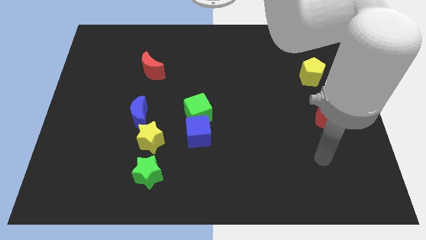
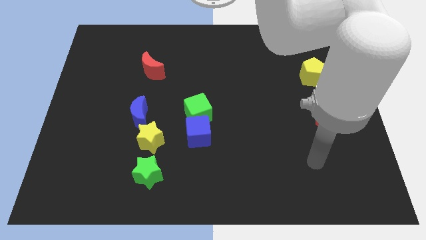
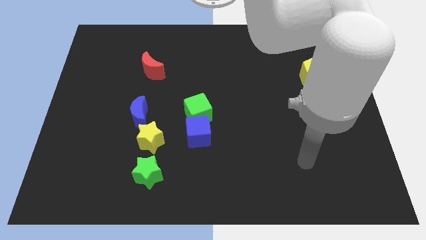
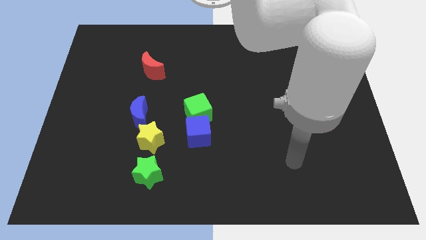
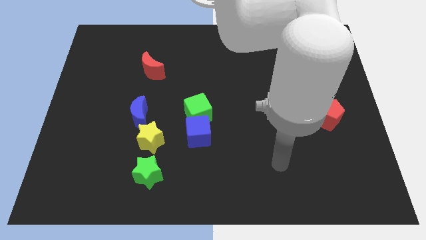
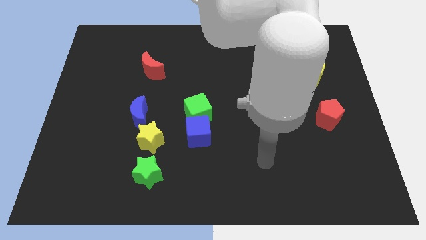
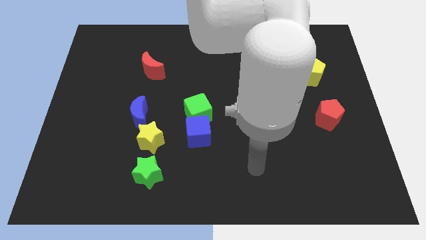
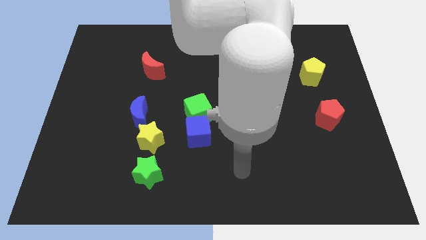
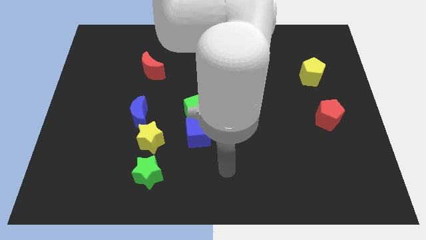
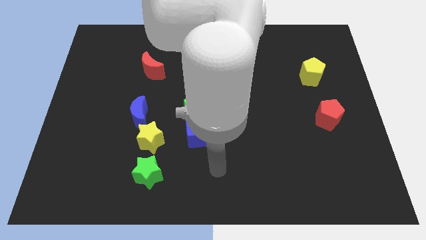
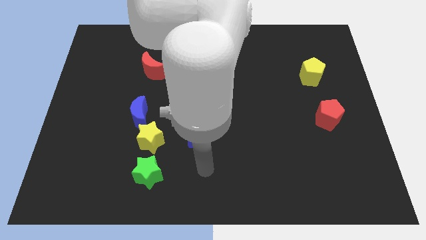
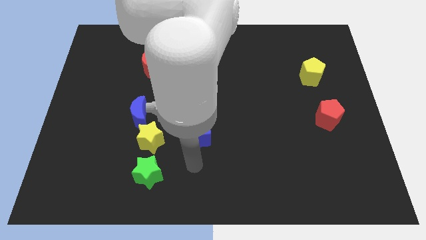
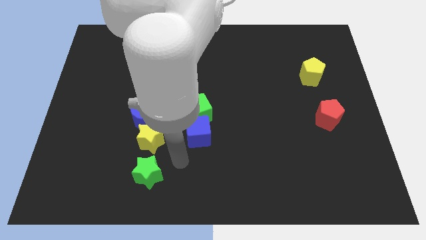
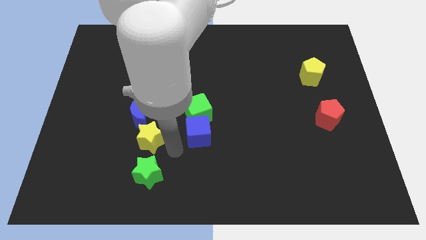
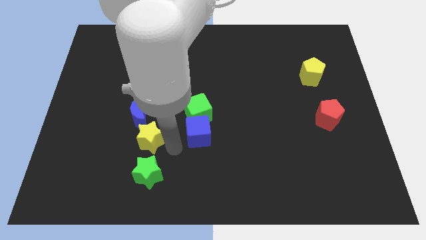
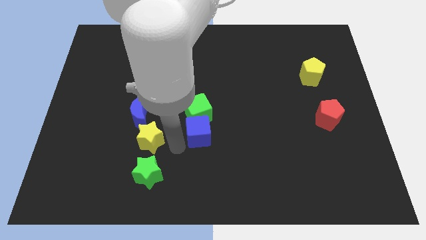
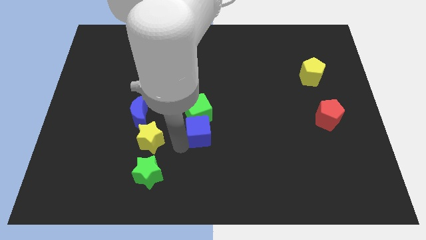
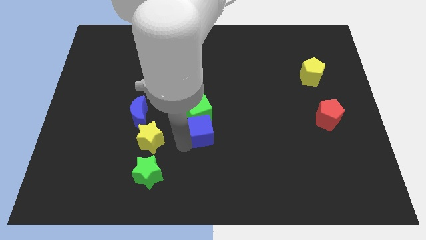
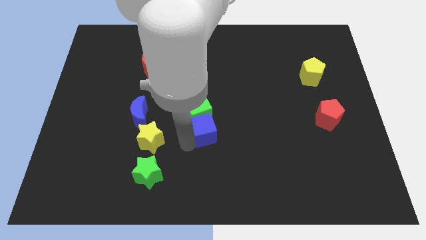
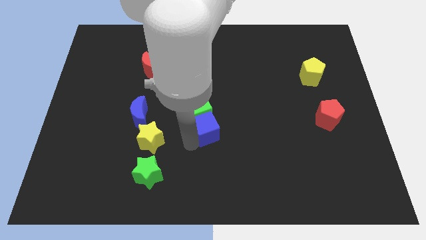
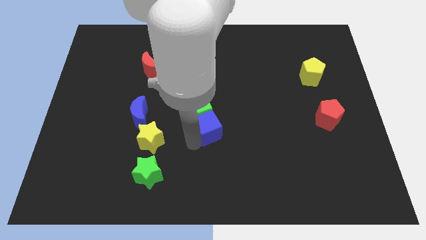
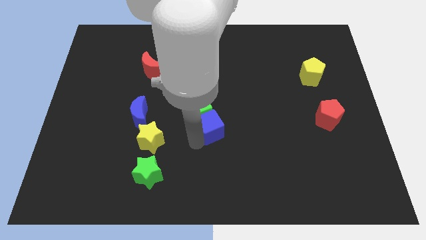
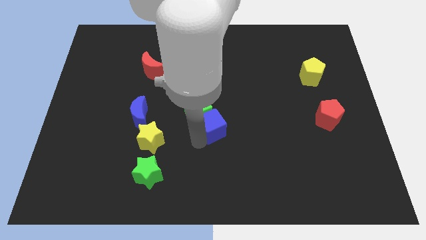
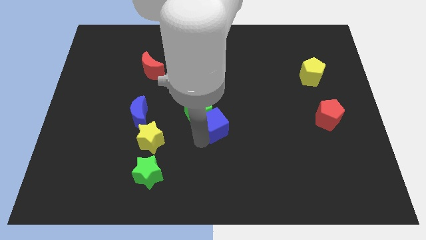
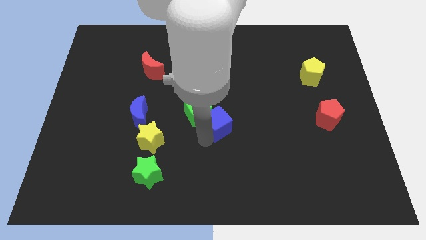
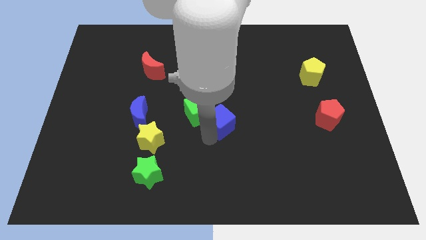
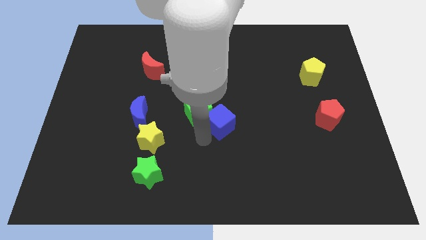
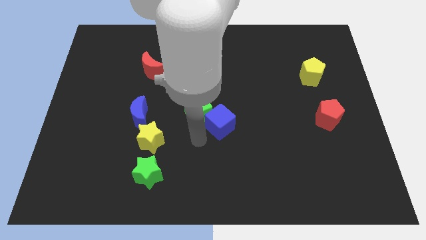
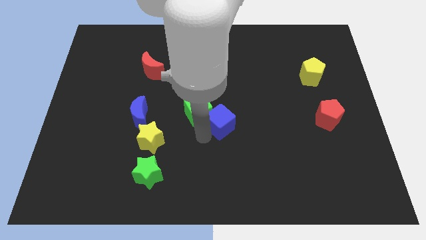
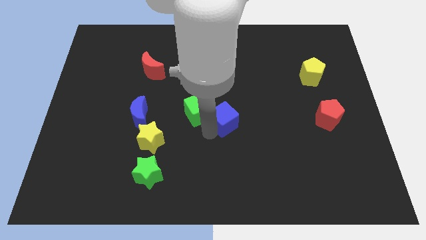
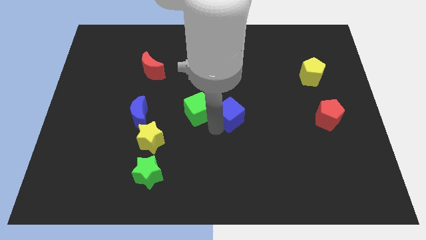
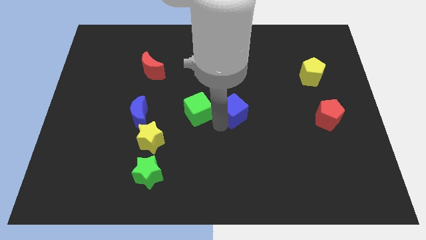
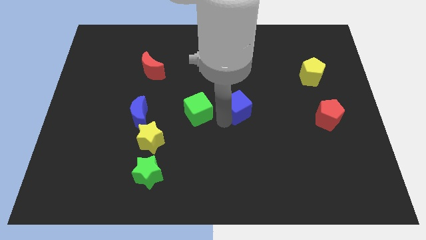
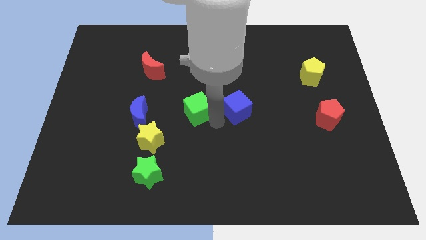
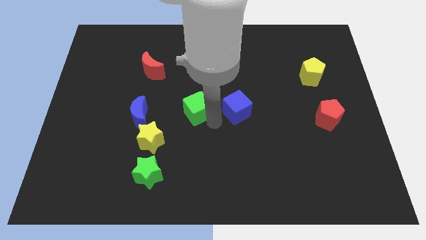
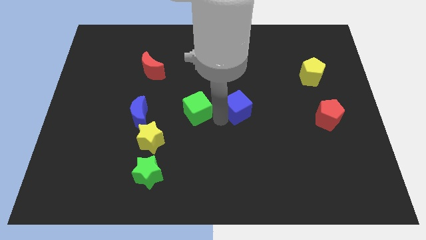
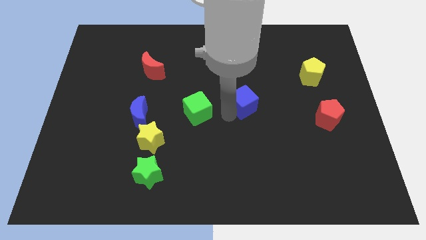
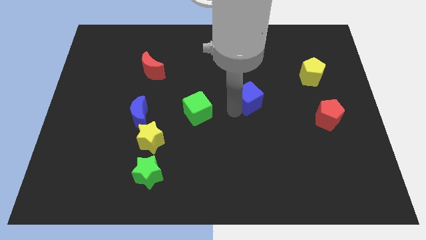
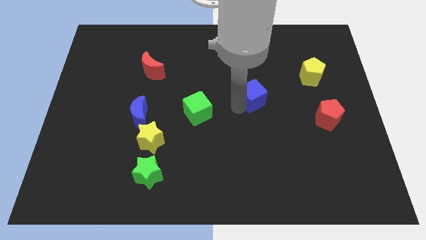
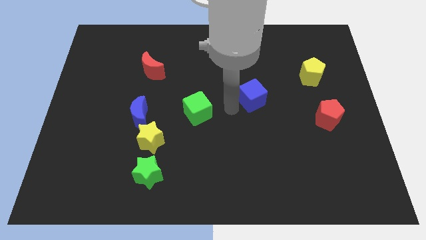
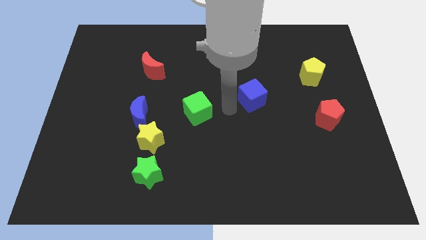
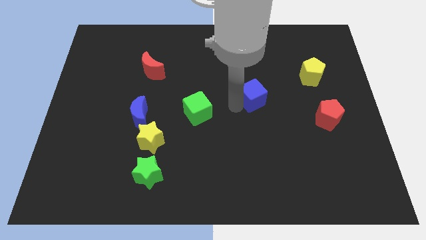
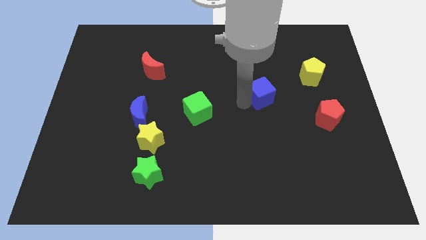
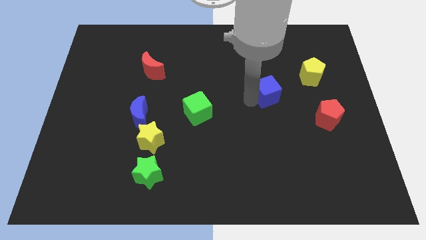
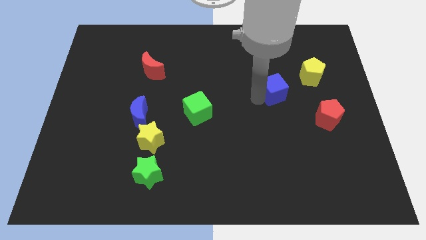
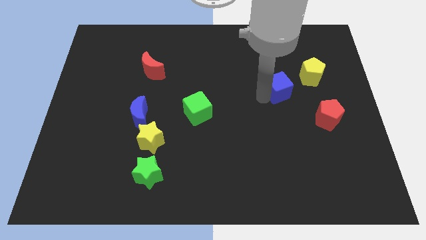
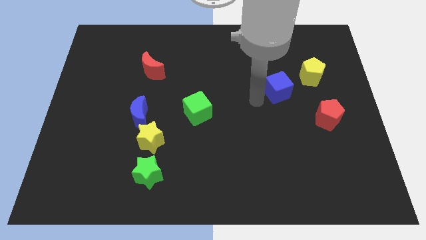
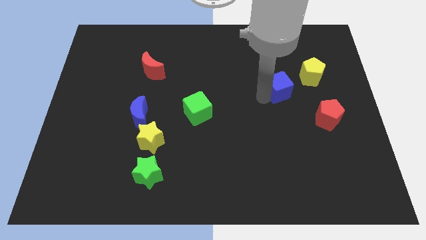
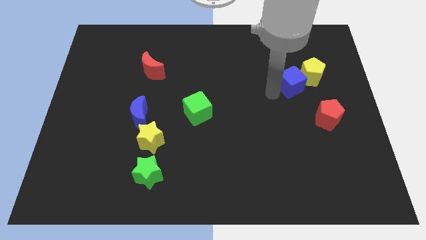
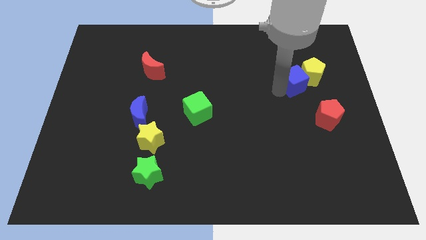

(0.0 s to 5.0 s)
push the blue cube next to the yellow pentagon

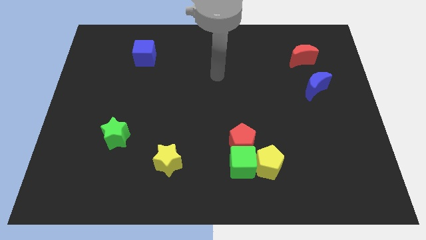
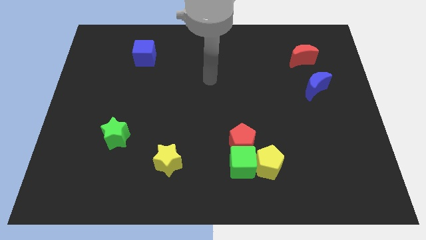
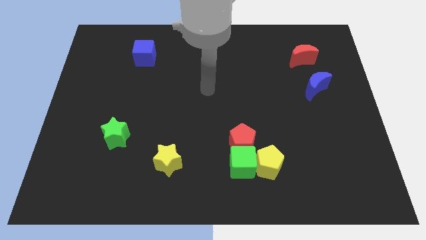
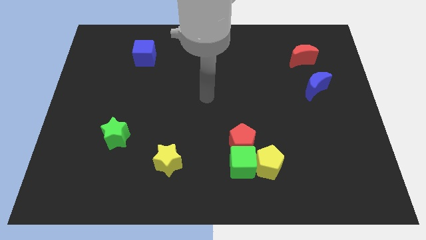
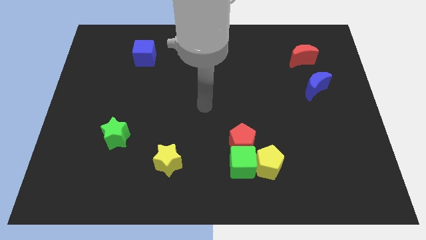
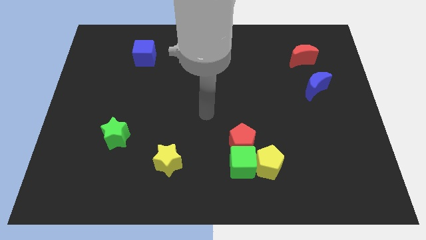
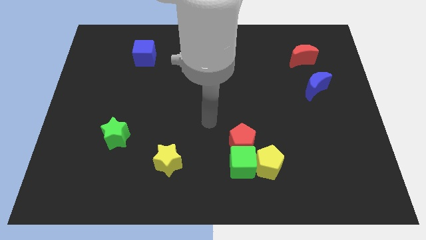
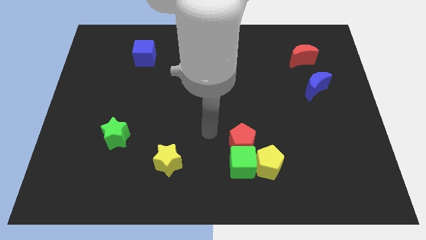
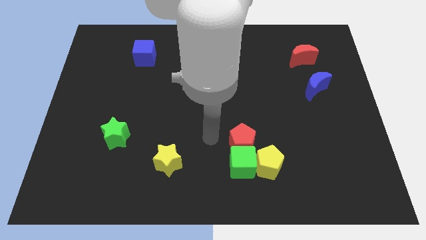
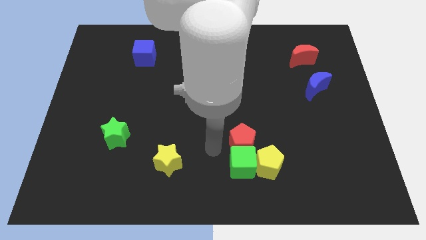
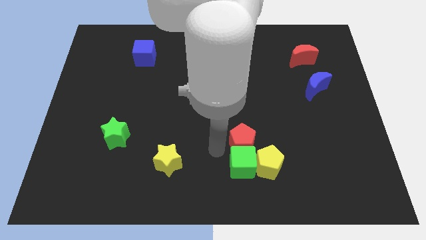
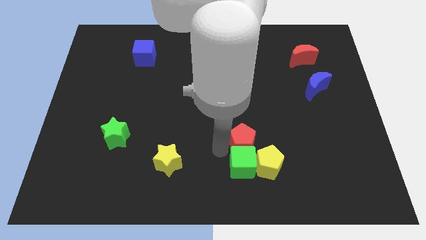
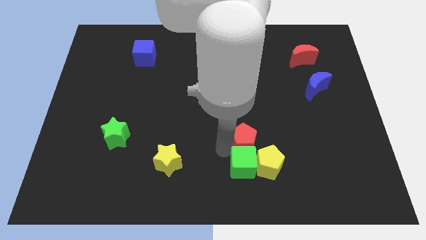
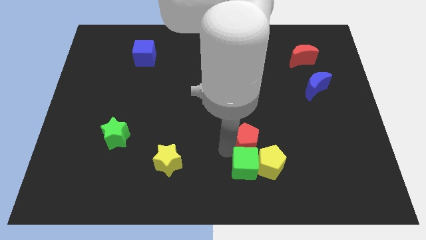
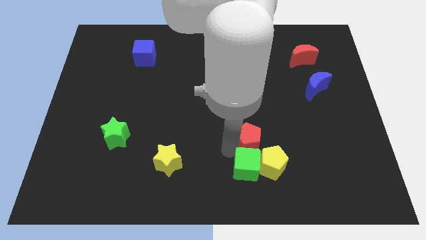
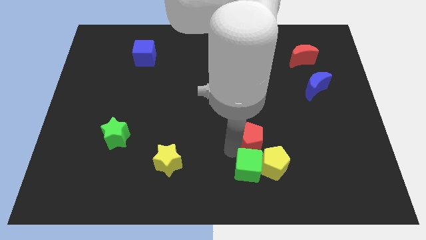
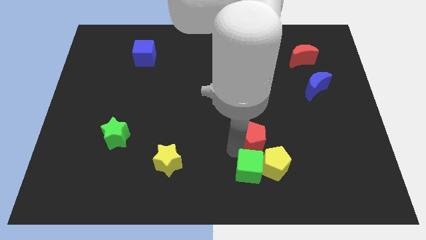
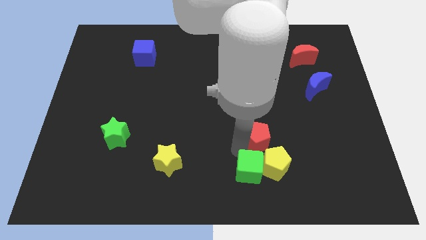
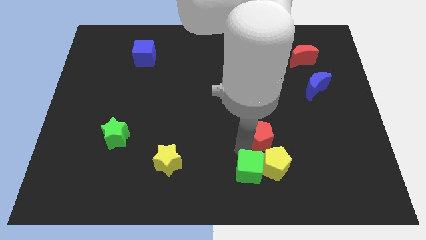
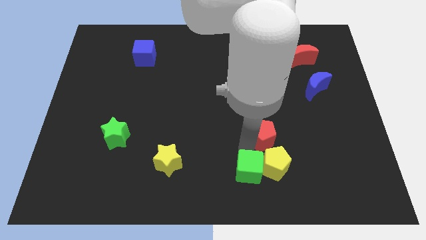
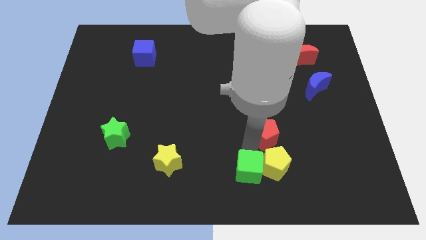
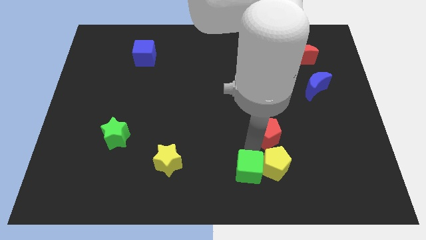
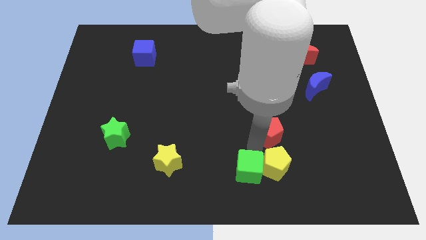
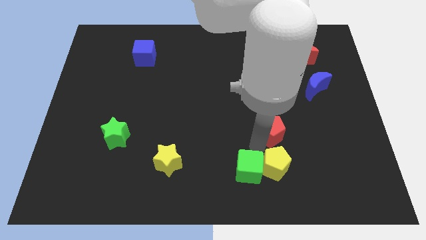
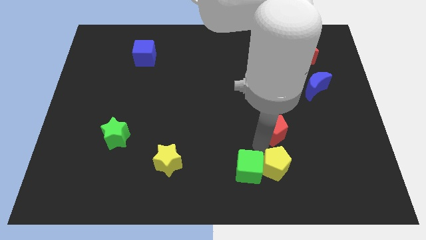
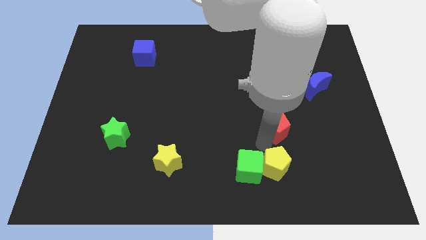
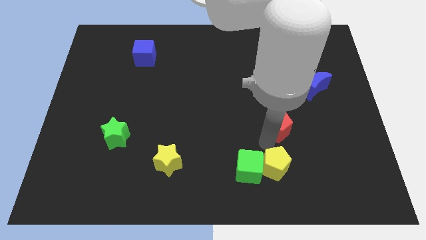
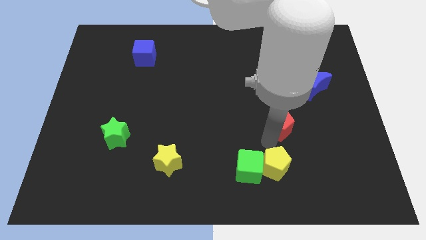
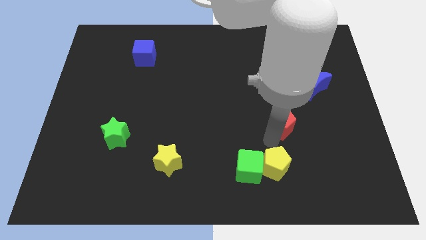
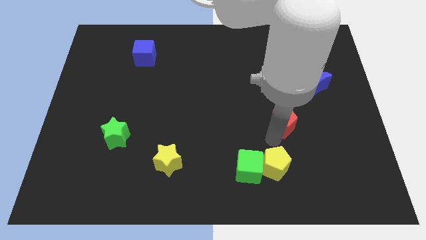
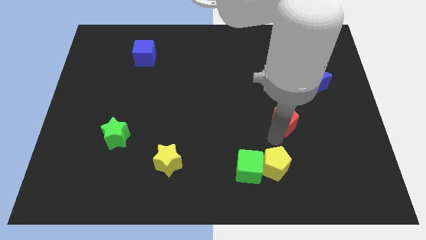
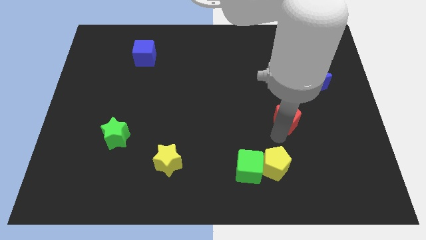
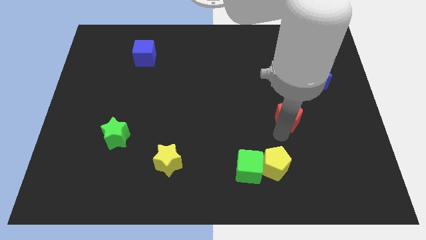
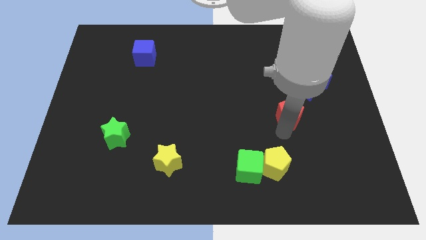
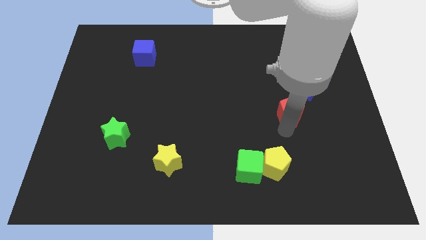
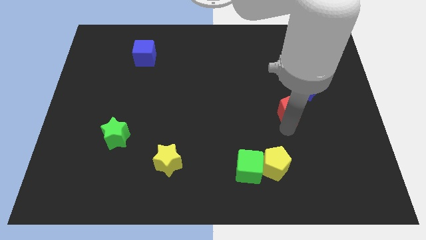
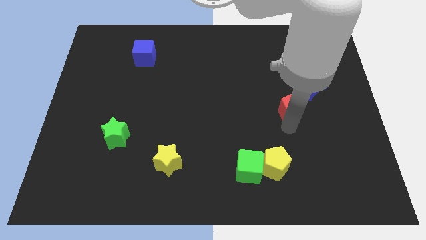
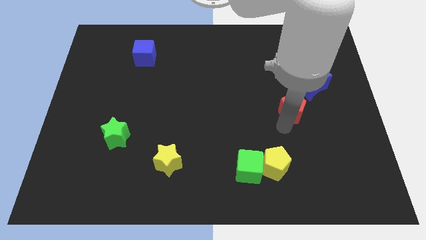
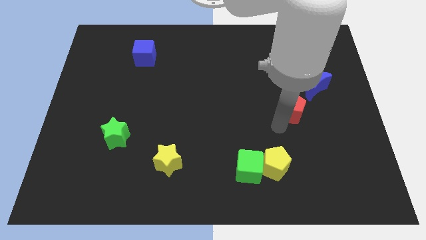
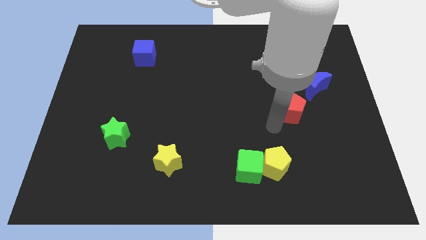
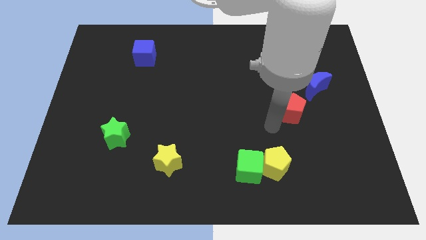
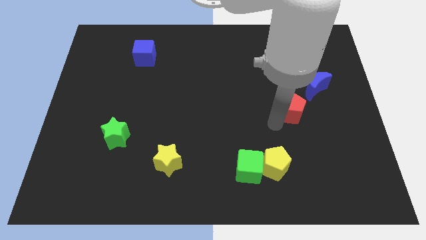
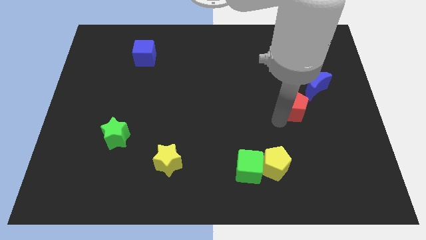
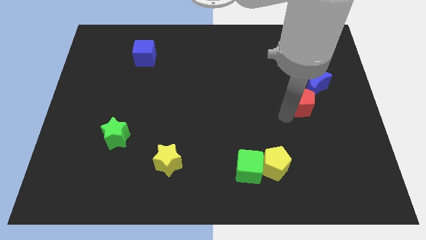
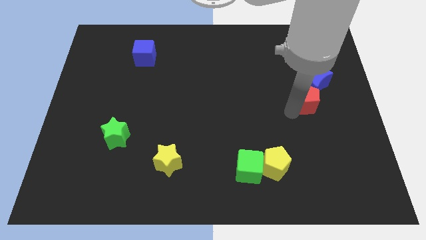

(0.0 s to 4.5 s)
put the red pentagon towards the blue moon
